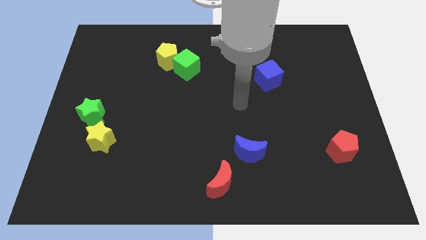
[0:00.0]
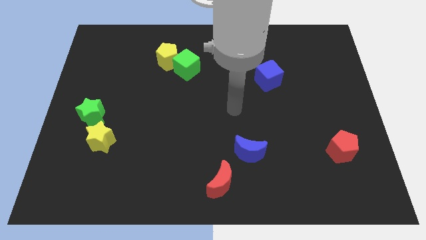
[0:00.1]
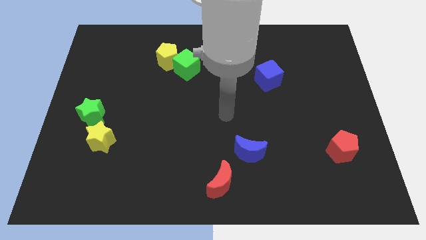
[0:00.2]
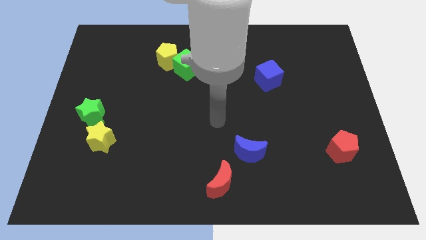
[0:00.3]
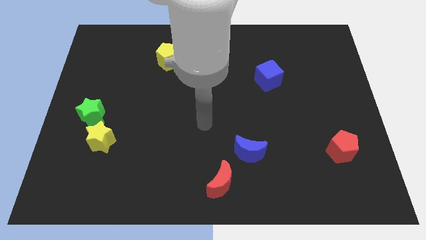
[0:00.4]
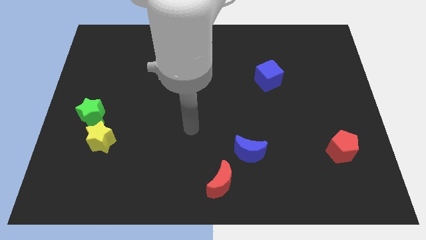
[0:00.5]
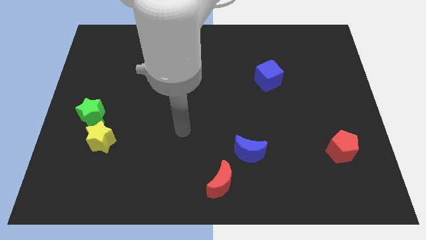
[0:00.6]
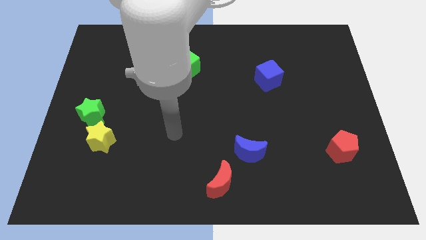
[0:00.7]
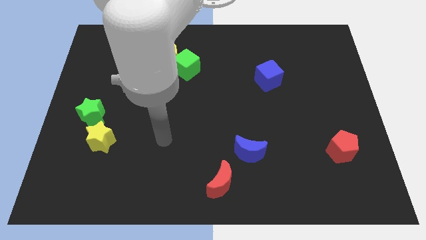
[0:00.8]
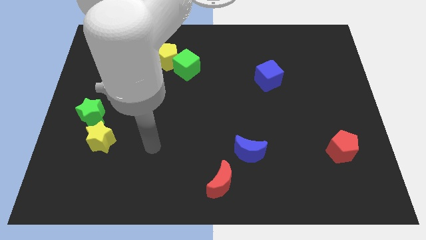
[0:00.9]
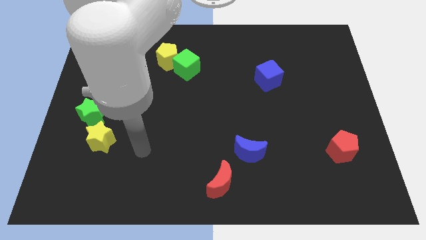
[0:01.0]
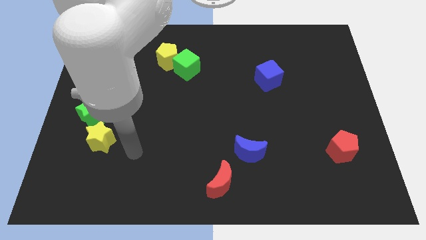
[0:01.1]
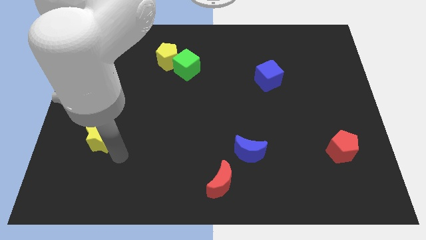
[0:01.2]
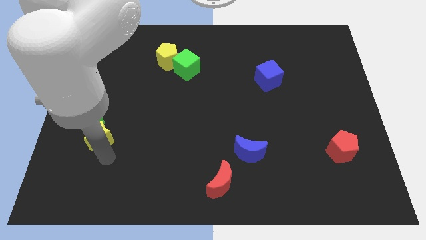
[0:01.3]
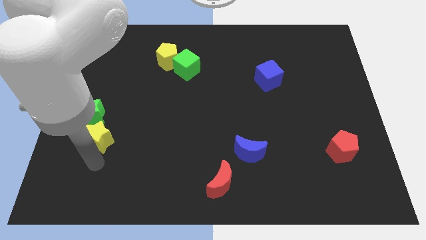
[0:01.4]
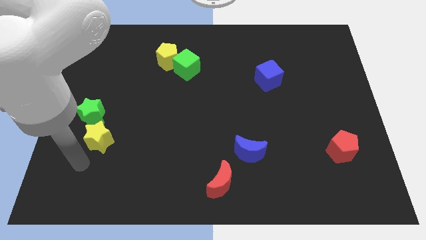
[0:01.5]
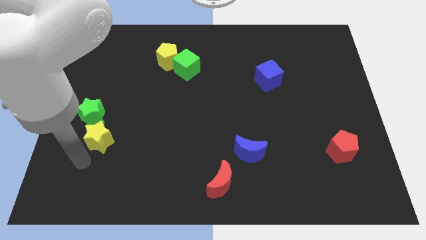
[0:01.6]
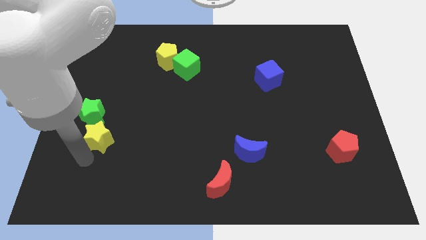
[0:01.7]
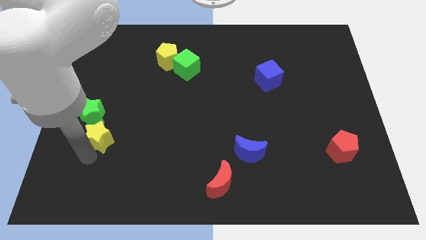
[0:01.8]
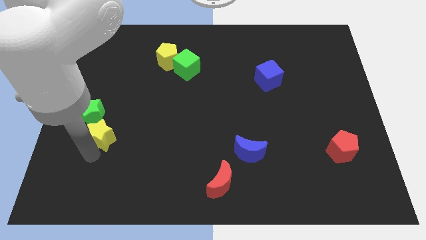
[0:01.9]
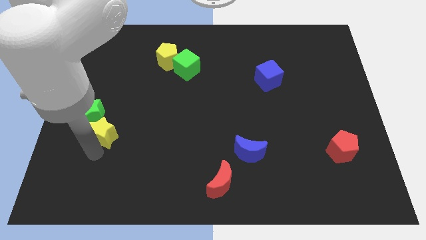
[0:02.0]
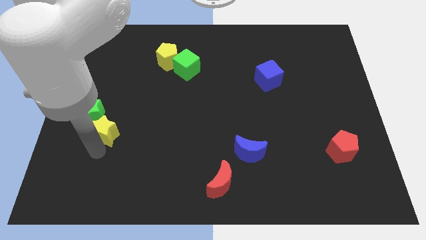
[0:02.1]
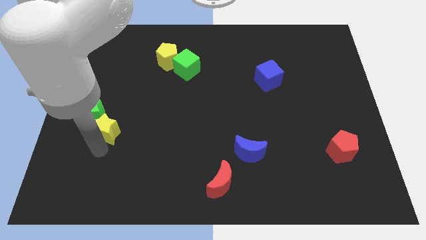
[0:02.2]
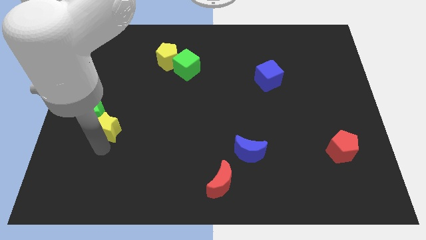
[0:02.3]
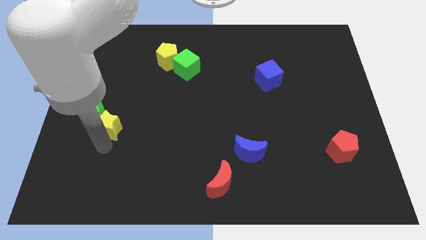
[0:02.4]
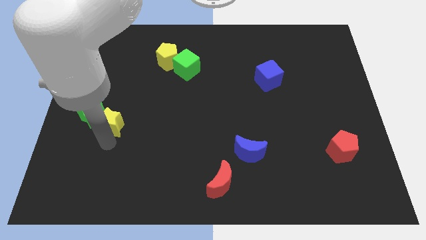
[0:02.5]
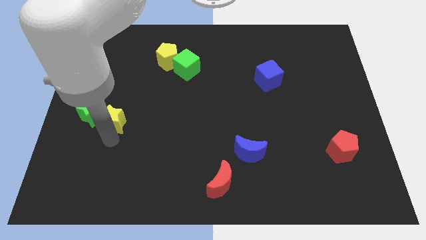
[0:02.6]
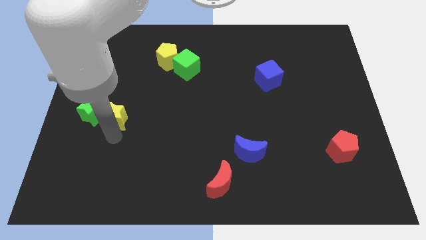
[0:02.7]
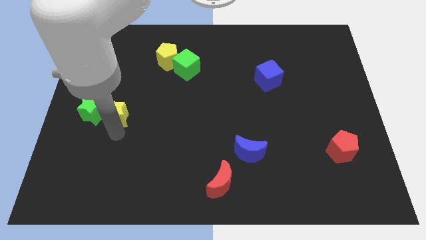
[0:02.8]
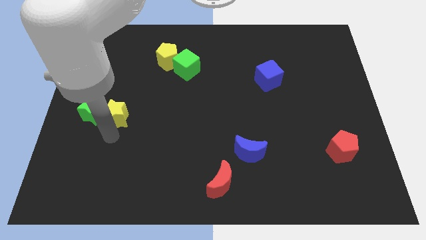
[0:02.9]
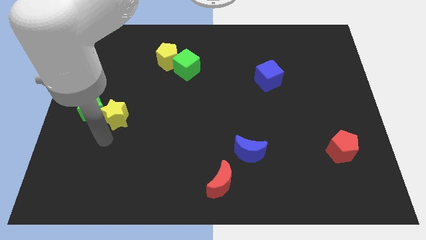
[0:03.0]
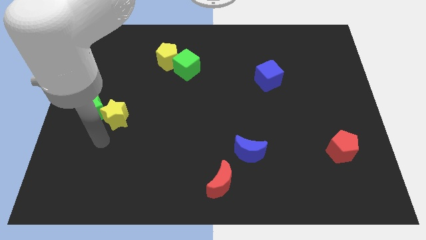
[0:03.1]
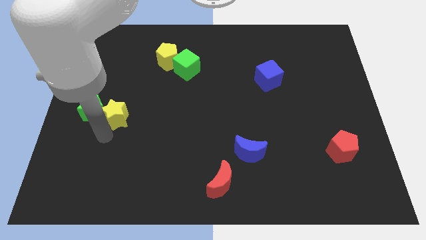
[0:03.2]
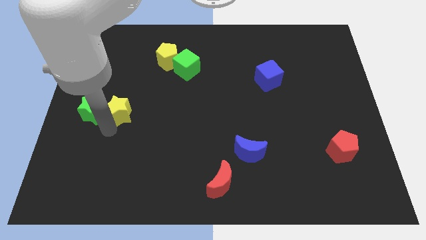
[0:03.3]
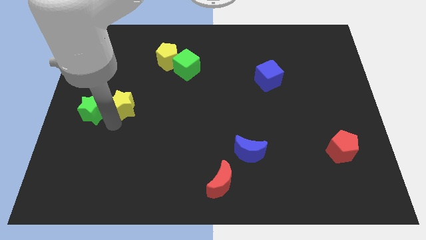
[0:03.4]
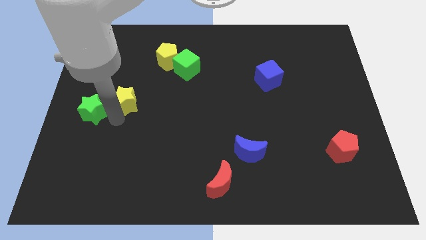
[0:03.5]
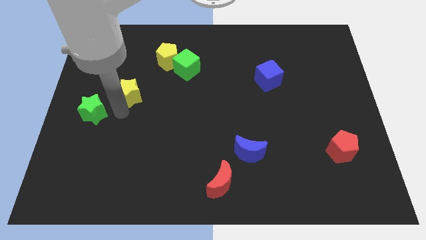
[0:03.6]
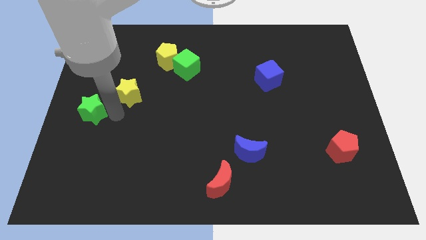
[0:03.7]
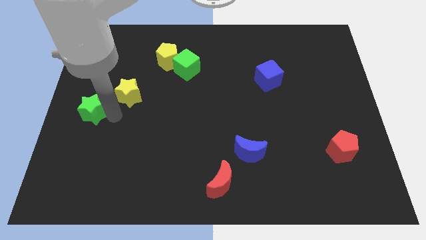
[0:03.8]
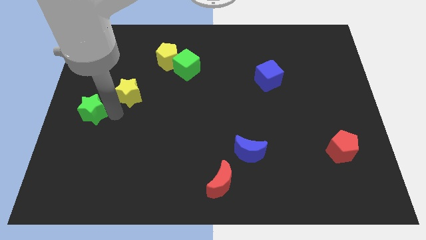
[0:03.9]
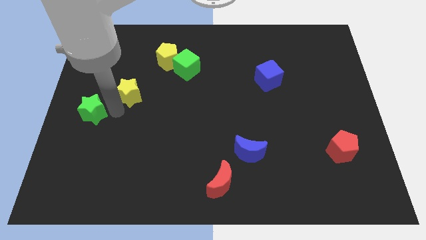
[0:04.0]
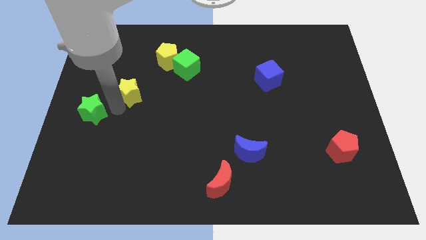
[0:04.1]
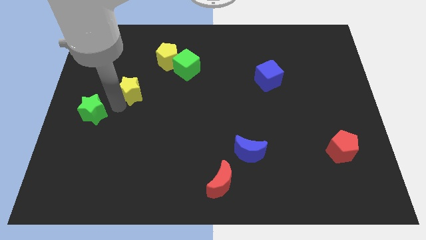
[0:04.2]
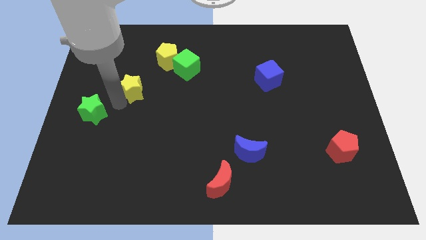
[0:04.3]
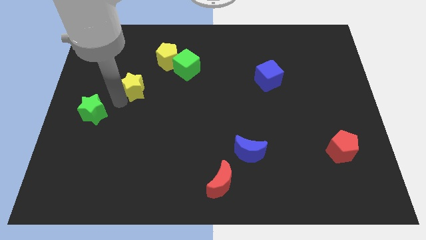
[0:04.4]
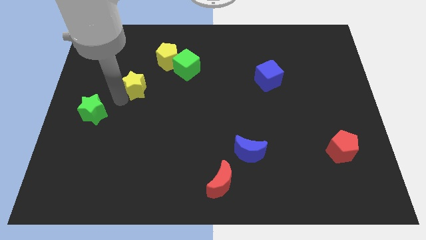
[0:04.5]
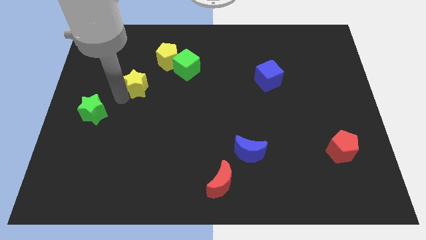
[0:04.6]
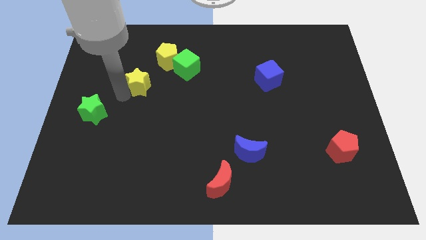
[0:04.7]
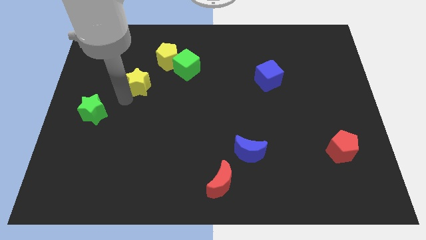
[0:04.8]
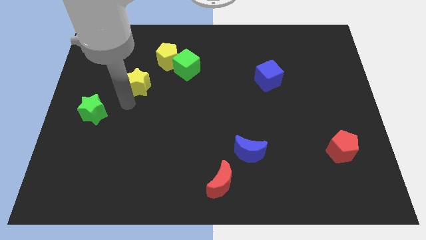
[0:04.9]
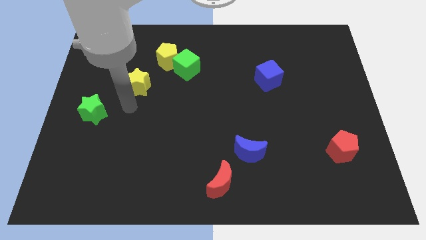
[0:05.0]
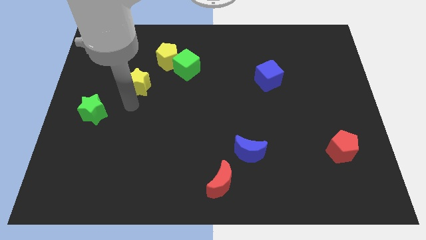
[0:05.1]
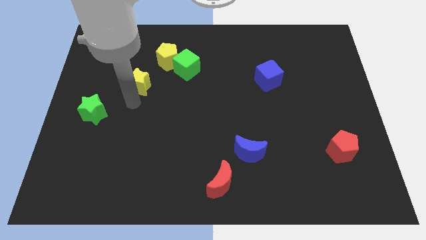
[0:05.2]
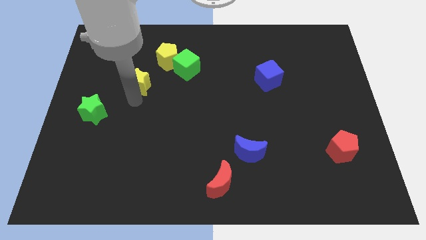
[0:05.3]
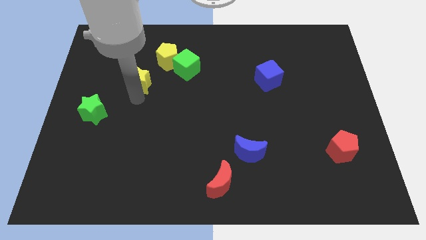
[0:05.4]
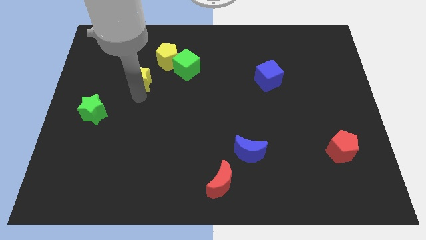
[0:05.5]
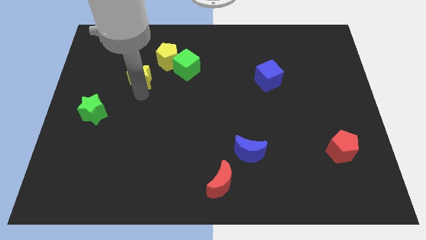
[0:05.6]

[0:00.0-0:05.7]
slide the yellow star to the left side of the green cube

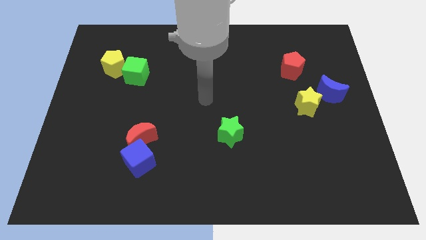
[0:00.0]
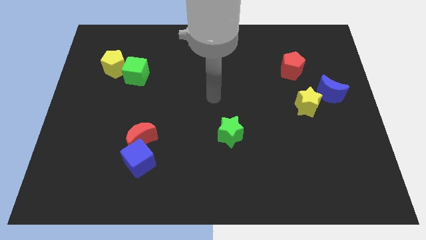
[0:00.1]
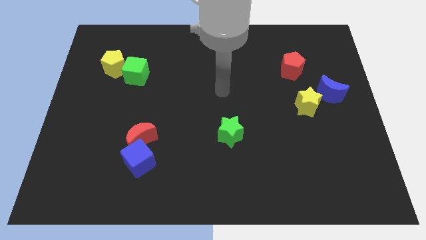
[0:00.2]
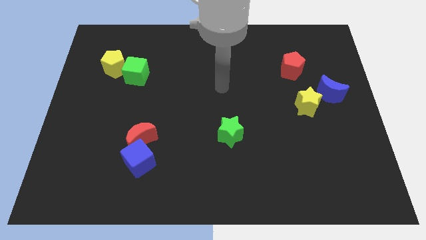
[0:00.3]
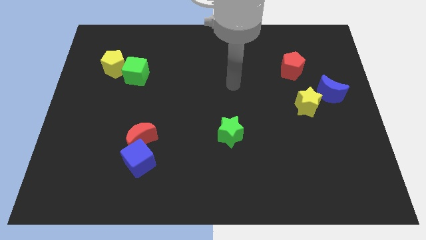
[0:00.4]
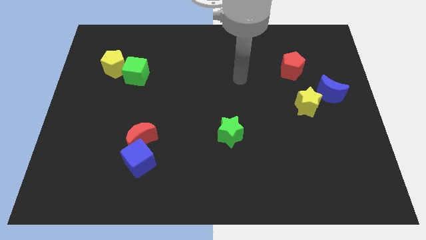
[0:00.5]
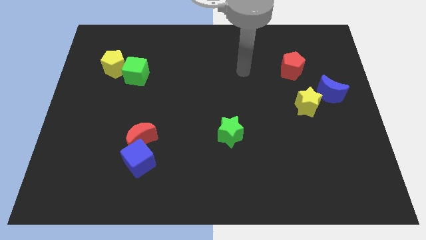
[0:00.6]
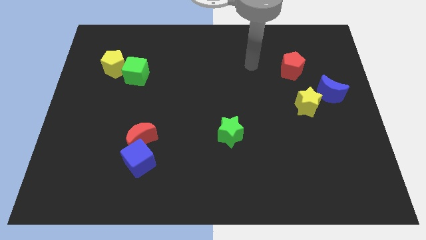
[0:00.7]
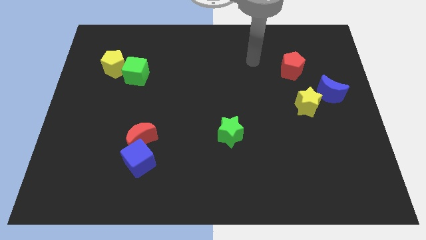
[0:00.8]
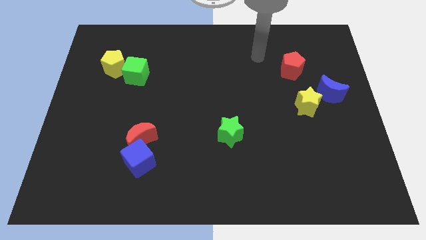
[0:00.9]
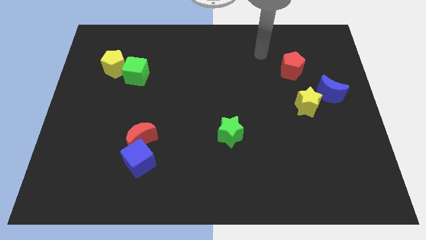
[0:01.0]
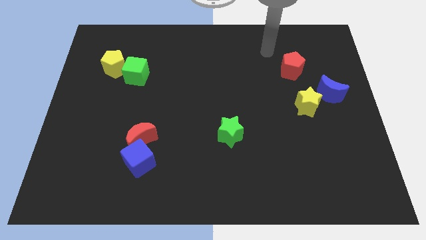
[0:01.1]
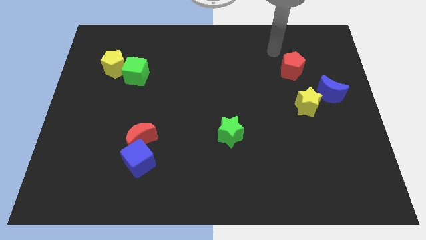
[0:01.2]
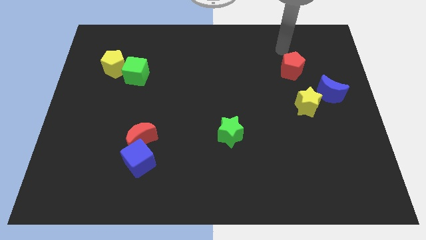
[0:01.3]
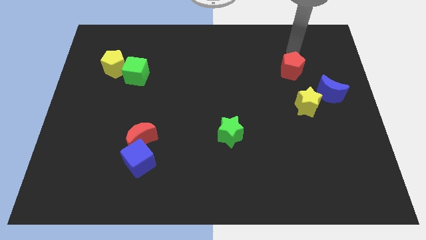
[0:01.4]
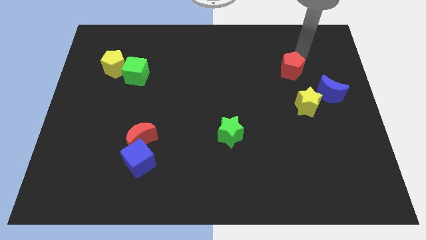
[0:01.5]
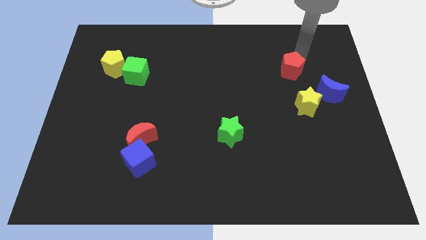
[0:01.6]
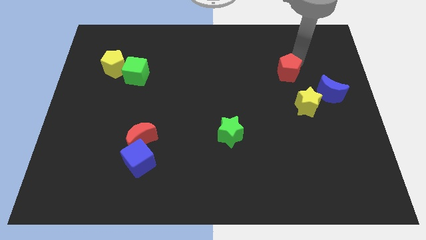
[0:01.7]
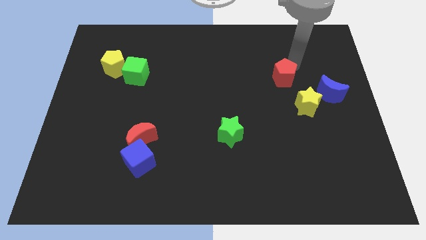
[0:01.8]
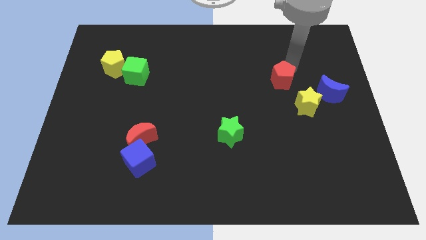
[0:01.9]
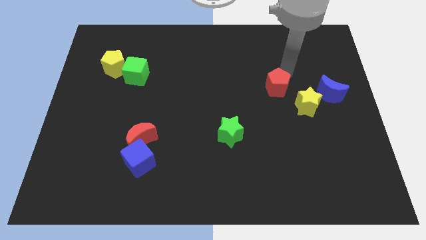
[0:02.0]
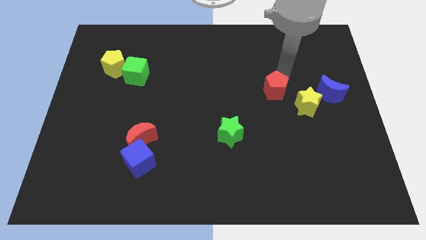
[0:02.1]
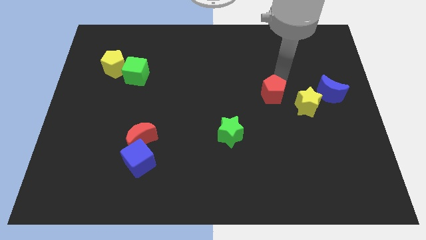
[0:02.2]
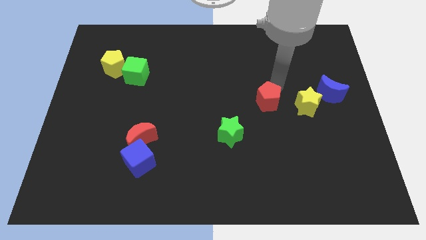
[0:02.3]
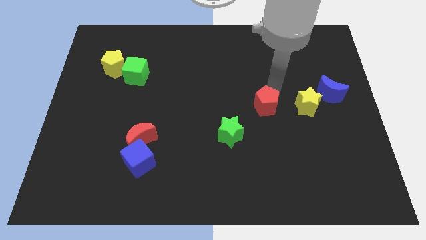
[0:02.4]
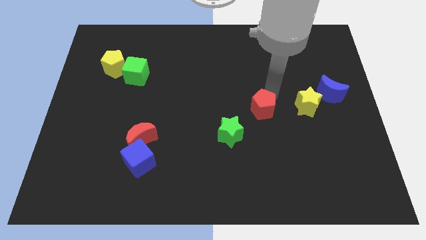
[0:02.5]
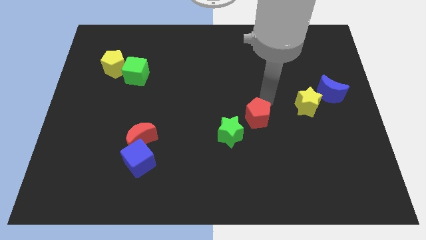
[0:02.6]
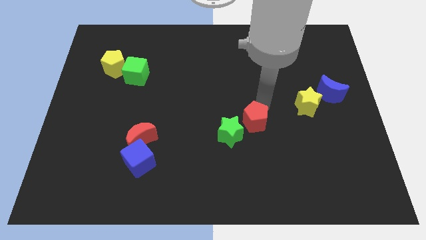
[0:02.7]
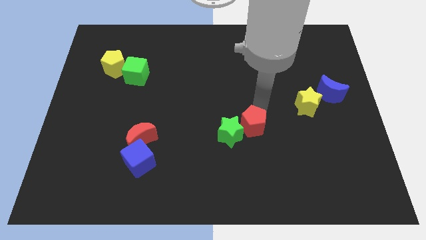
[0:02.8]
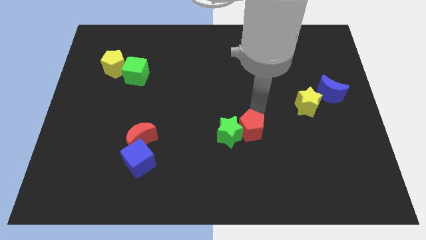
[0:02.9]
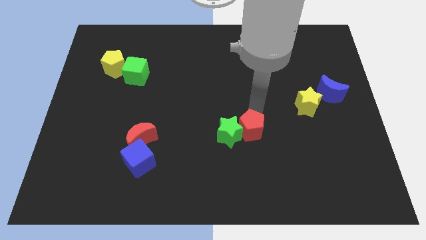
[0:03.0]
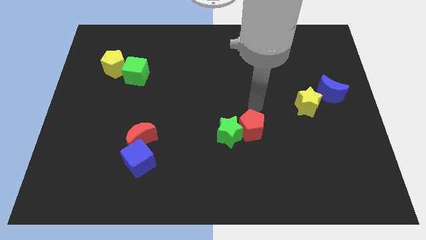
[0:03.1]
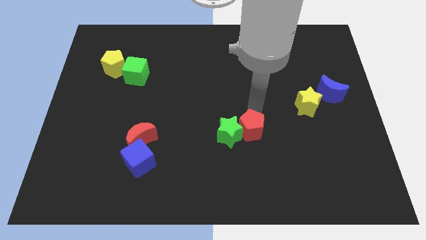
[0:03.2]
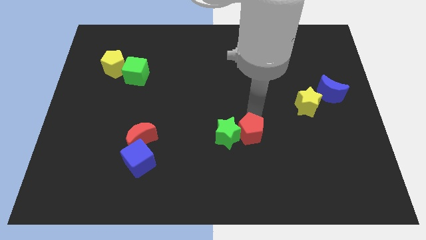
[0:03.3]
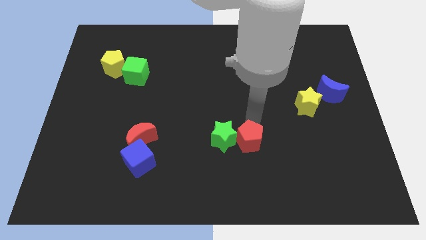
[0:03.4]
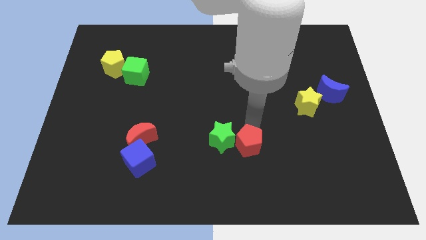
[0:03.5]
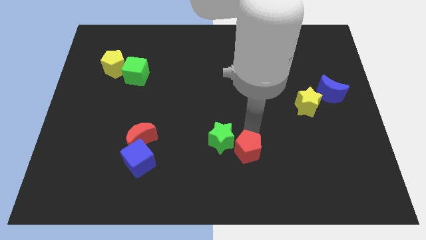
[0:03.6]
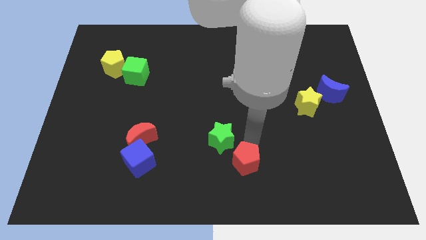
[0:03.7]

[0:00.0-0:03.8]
move the red pentagon to the bottom side of the green star
